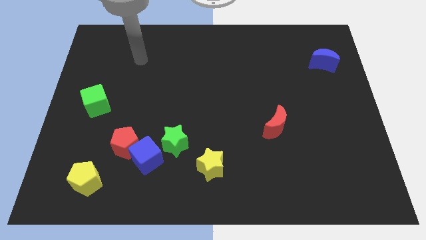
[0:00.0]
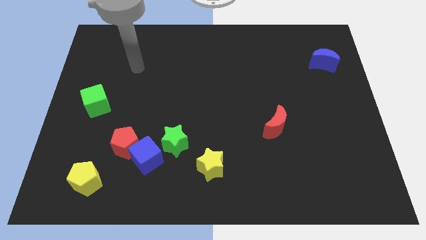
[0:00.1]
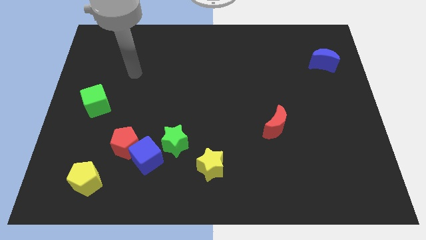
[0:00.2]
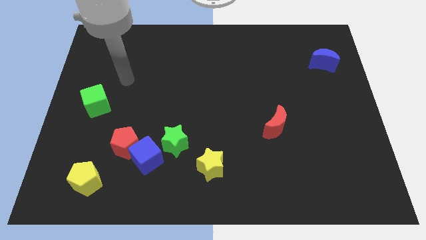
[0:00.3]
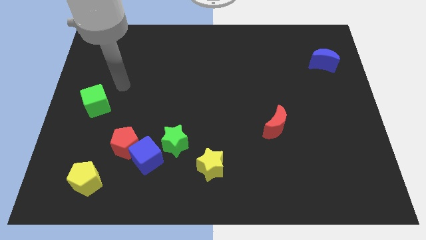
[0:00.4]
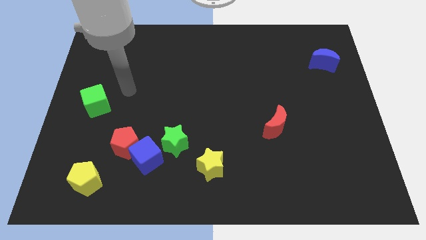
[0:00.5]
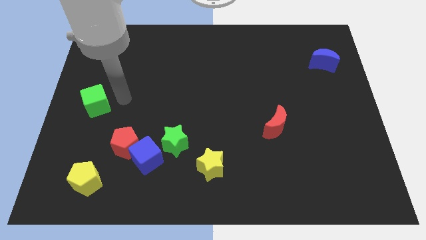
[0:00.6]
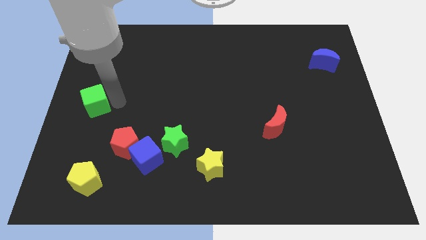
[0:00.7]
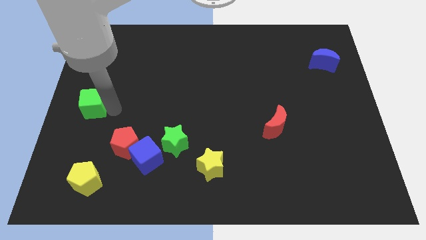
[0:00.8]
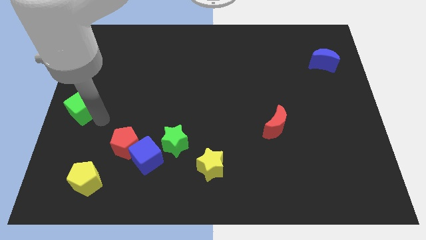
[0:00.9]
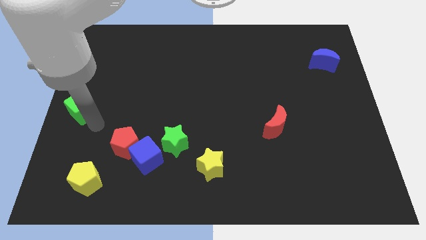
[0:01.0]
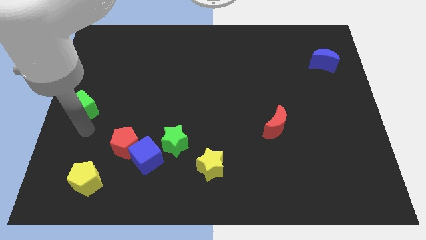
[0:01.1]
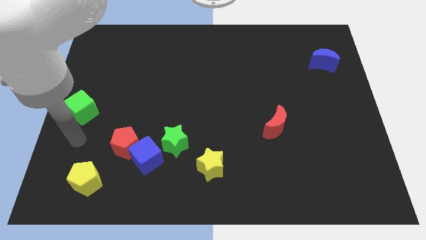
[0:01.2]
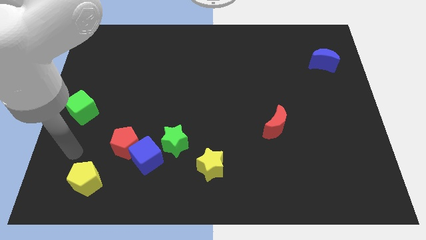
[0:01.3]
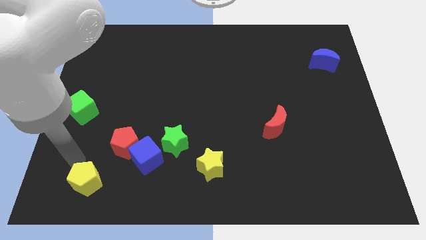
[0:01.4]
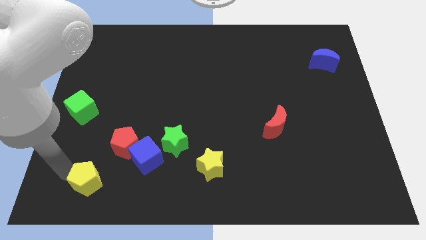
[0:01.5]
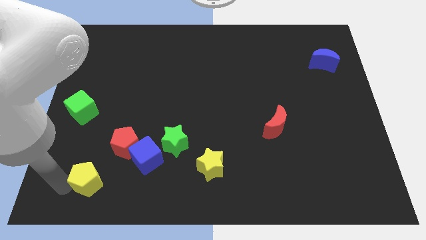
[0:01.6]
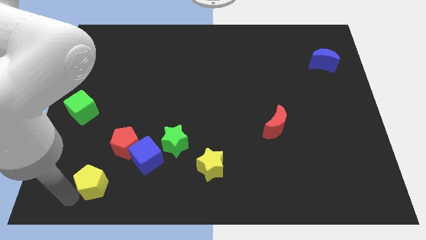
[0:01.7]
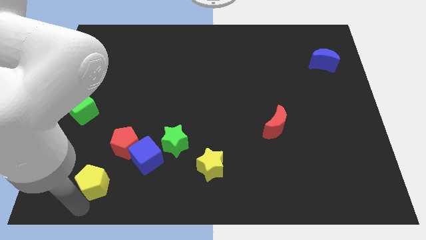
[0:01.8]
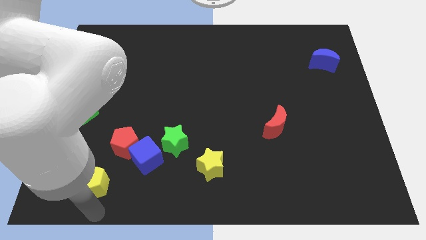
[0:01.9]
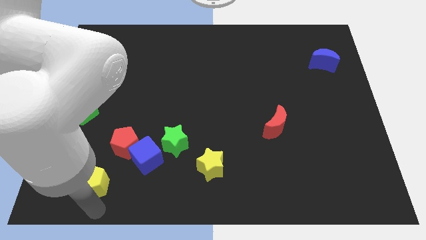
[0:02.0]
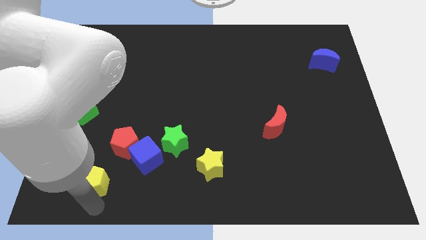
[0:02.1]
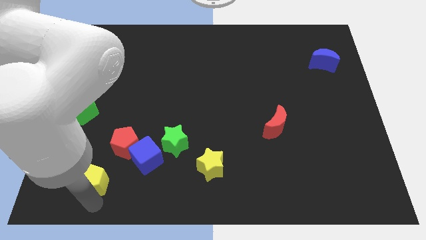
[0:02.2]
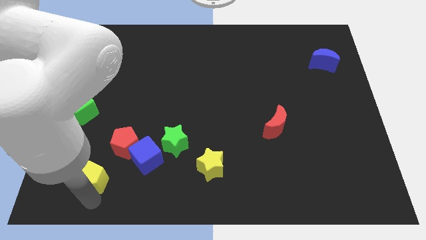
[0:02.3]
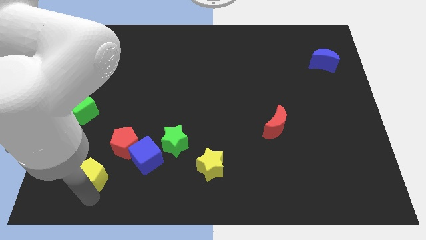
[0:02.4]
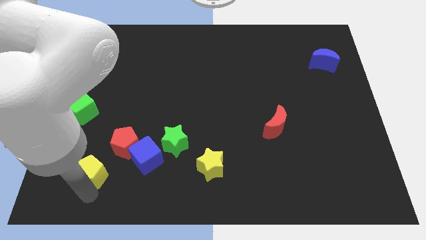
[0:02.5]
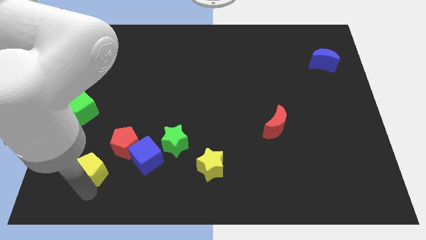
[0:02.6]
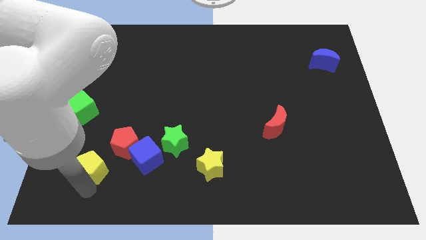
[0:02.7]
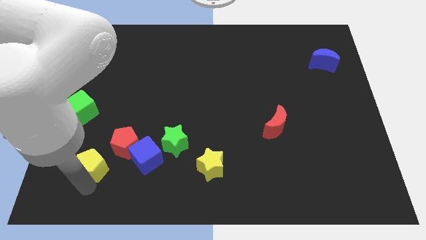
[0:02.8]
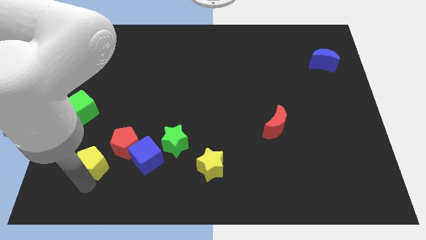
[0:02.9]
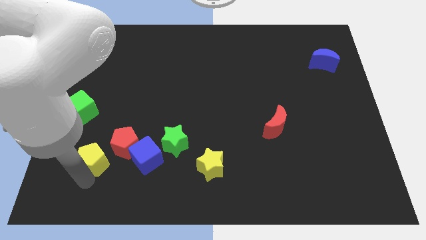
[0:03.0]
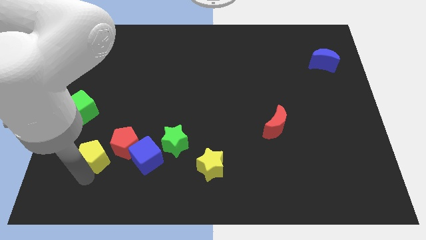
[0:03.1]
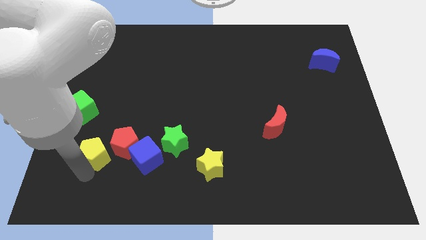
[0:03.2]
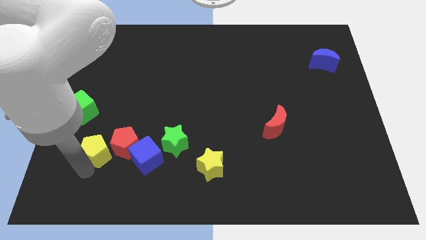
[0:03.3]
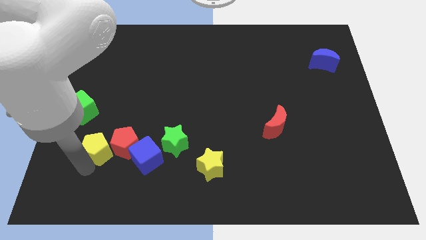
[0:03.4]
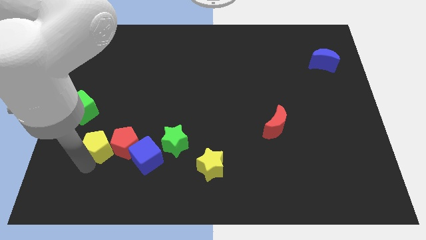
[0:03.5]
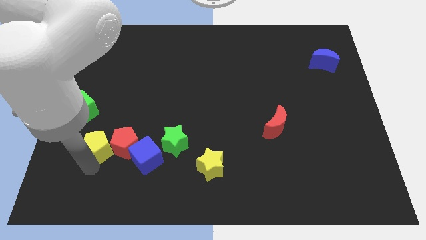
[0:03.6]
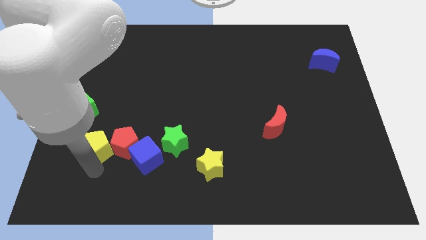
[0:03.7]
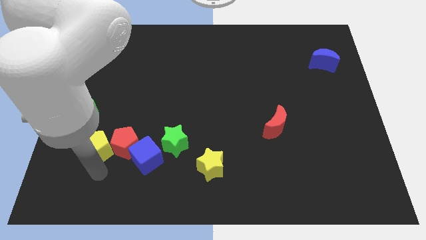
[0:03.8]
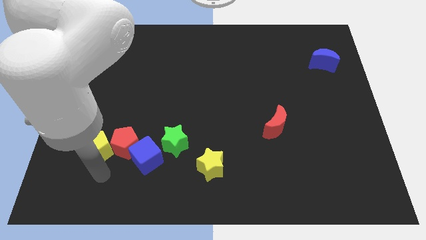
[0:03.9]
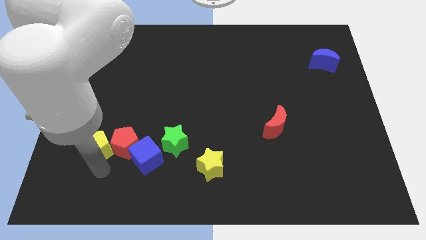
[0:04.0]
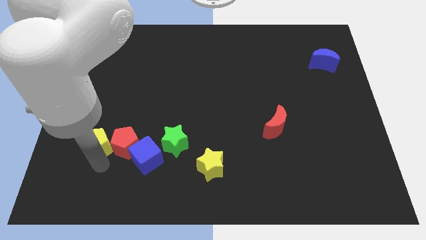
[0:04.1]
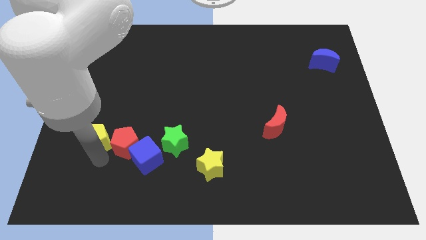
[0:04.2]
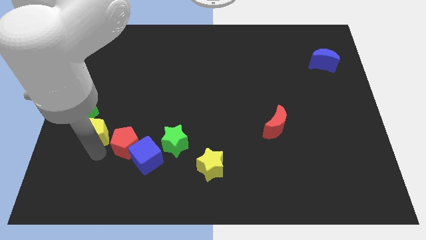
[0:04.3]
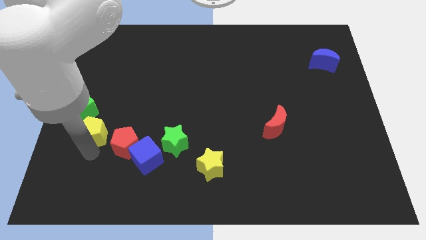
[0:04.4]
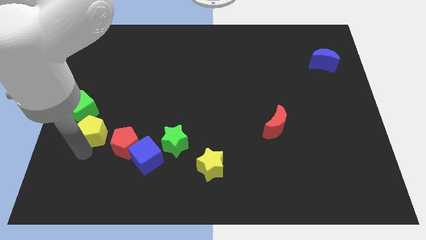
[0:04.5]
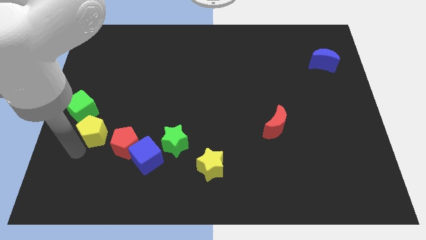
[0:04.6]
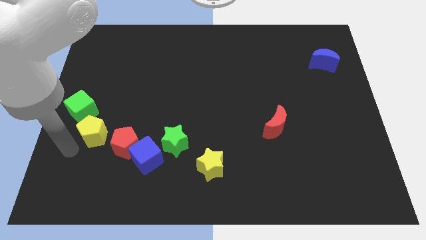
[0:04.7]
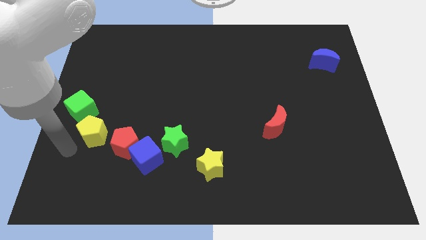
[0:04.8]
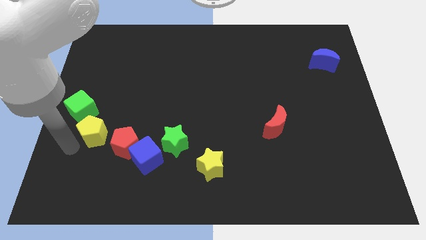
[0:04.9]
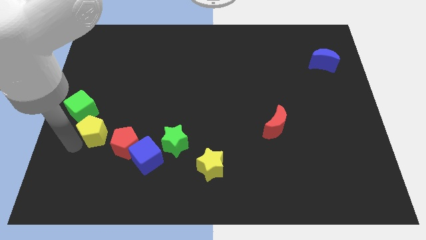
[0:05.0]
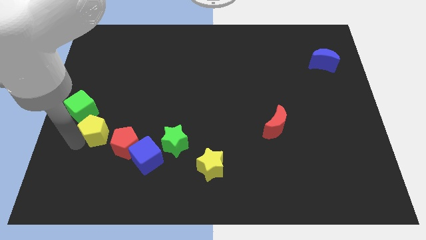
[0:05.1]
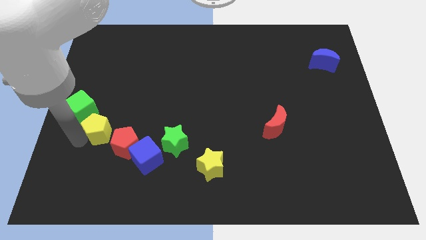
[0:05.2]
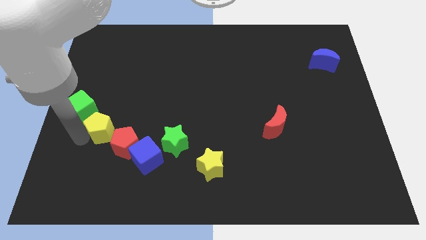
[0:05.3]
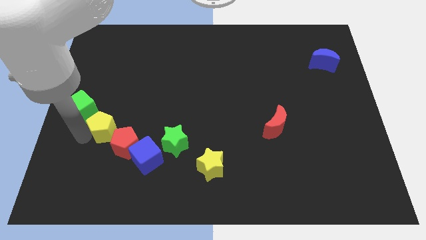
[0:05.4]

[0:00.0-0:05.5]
move the yellow pentagon a little up and right

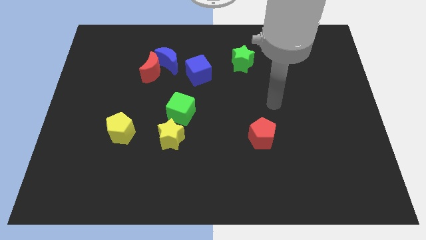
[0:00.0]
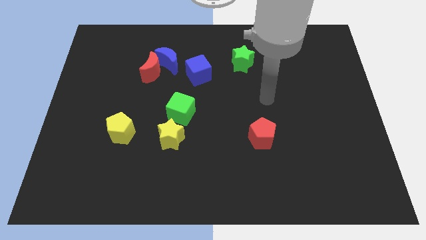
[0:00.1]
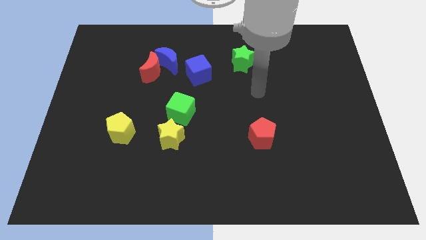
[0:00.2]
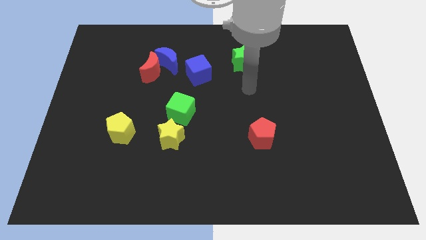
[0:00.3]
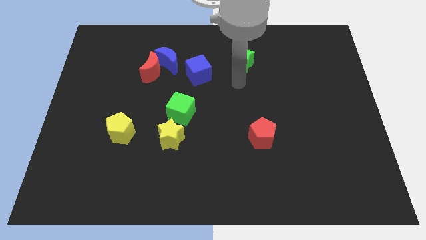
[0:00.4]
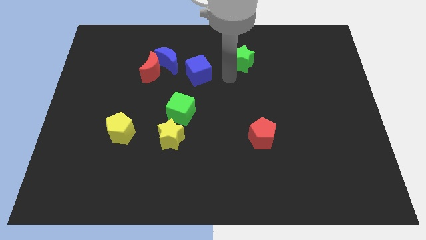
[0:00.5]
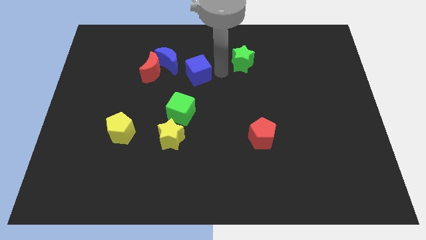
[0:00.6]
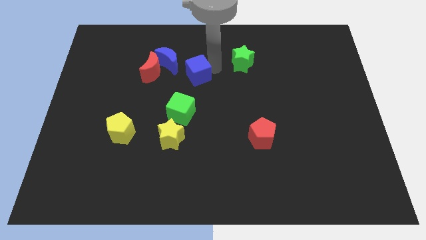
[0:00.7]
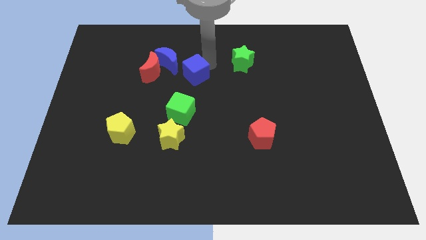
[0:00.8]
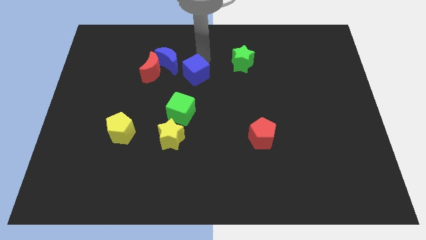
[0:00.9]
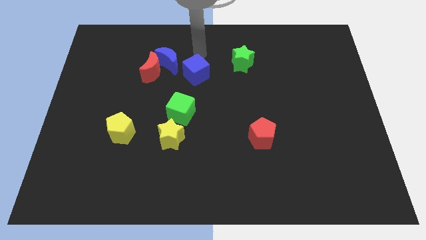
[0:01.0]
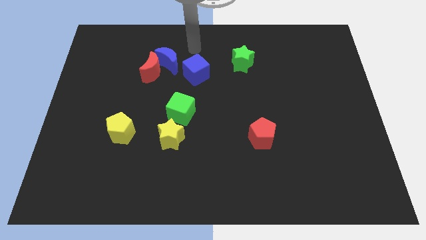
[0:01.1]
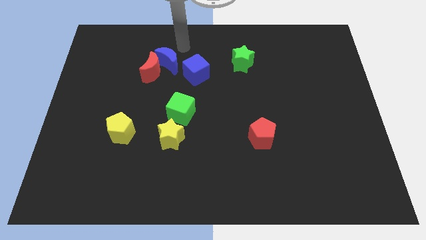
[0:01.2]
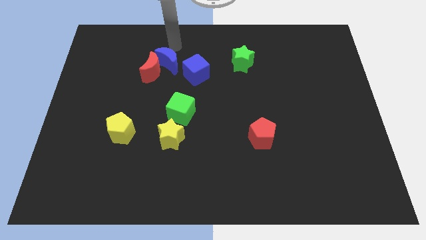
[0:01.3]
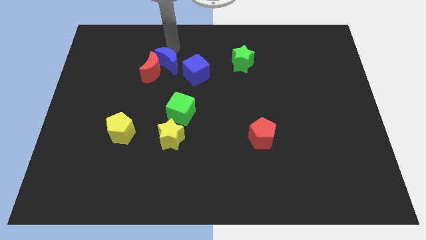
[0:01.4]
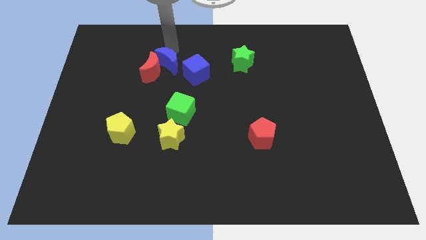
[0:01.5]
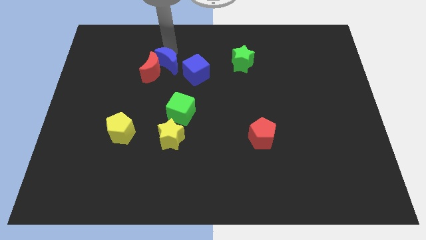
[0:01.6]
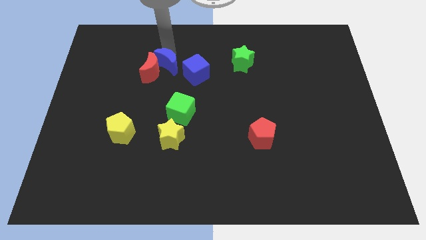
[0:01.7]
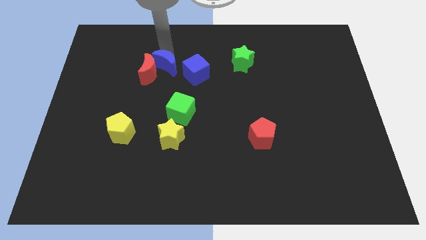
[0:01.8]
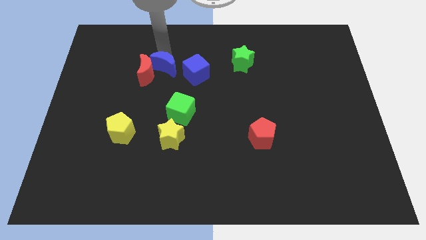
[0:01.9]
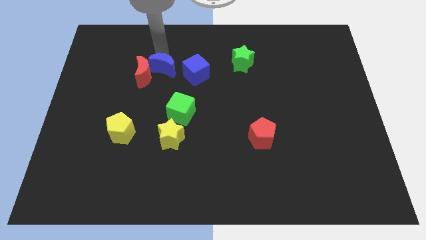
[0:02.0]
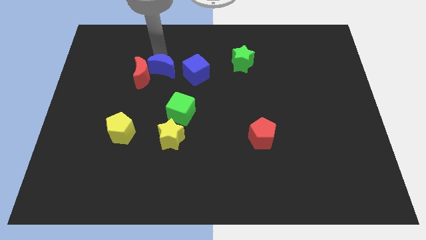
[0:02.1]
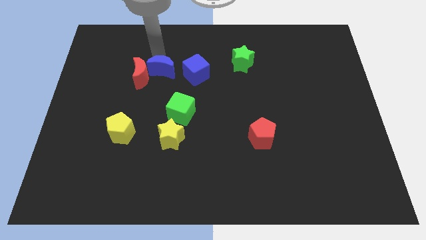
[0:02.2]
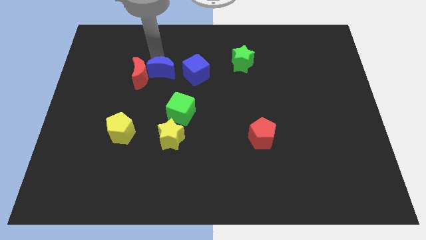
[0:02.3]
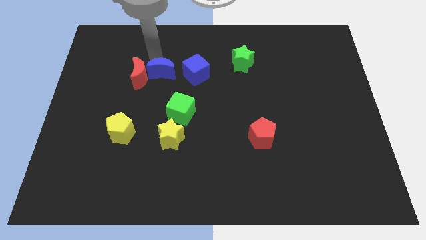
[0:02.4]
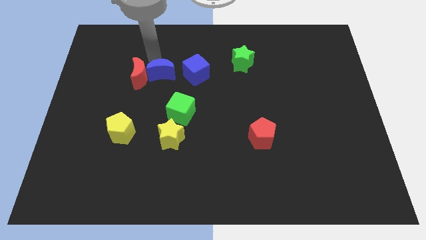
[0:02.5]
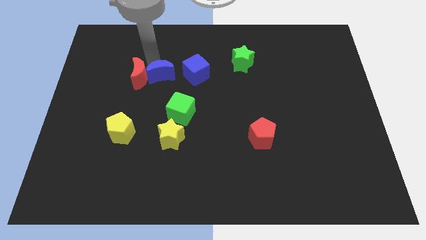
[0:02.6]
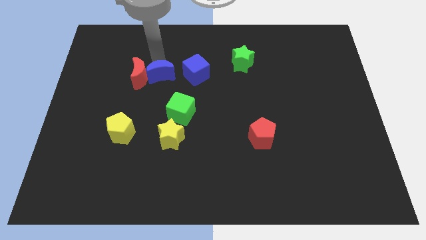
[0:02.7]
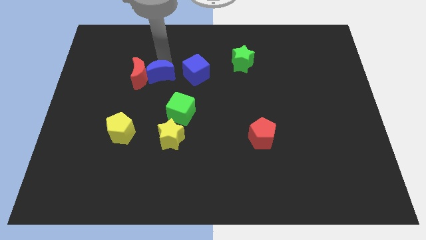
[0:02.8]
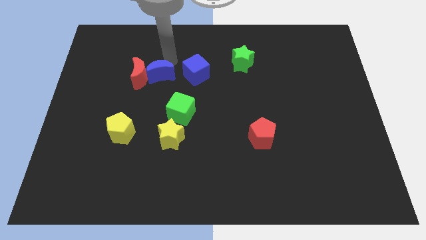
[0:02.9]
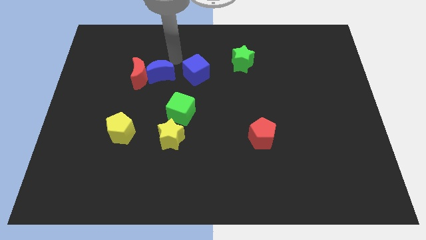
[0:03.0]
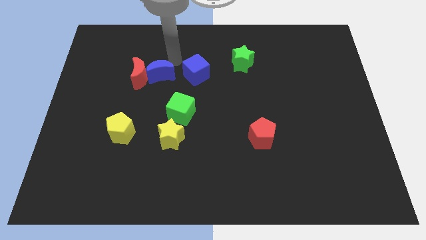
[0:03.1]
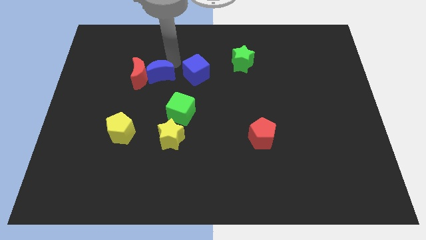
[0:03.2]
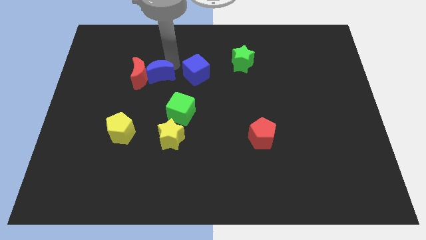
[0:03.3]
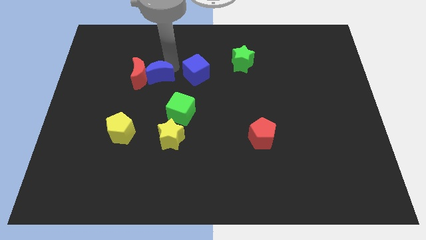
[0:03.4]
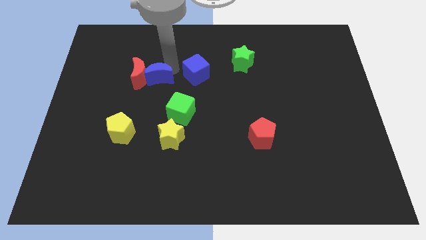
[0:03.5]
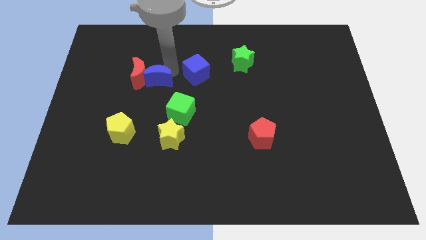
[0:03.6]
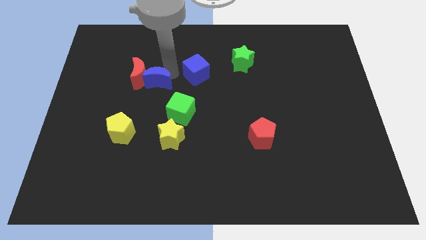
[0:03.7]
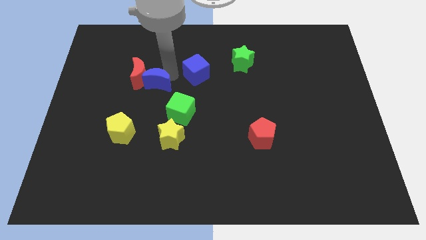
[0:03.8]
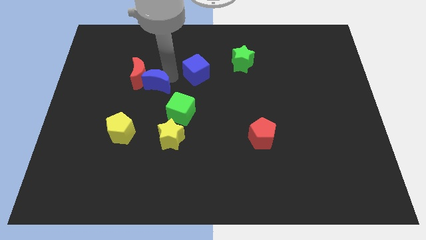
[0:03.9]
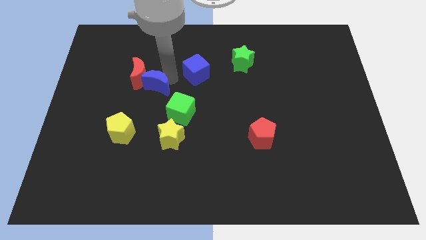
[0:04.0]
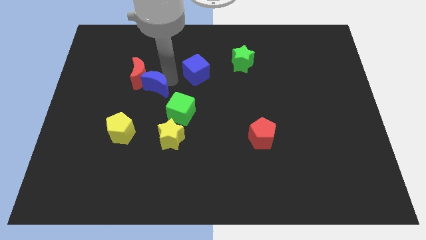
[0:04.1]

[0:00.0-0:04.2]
push the blue moon down and then left slightly
